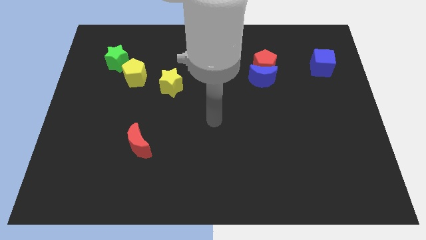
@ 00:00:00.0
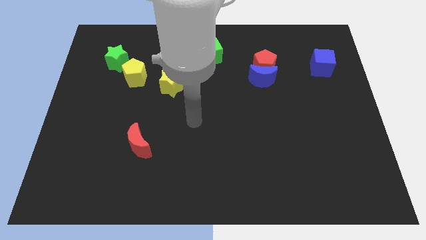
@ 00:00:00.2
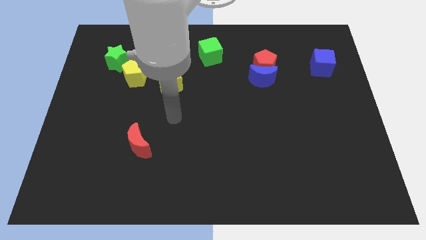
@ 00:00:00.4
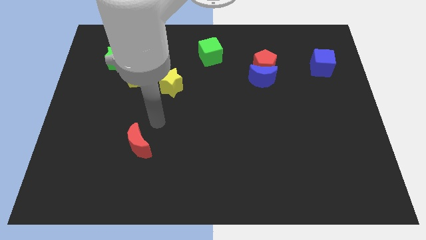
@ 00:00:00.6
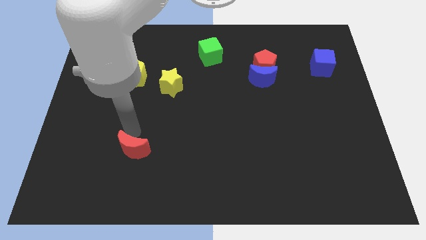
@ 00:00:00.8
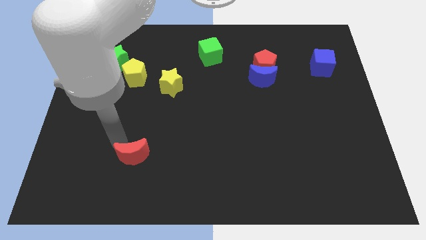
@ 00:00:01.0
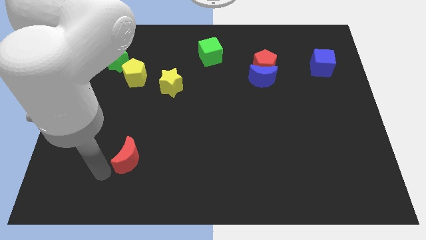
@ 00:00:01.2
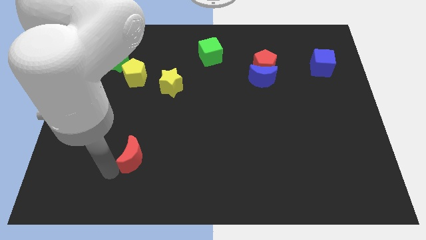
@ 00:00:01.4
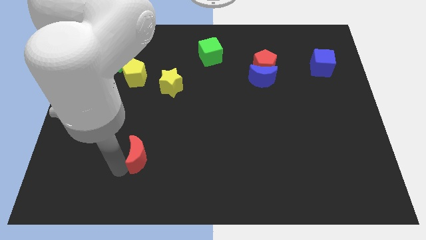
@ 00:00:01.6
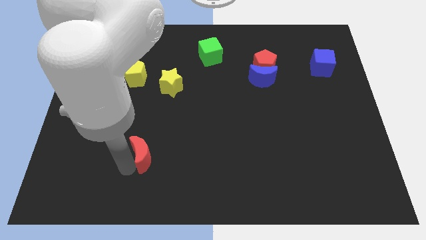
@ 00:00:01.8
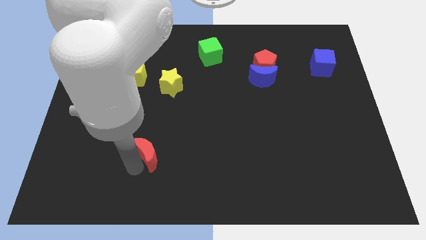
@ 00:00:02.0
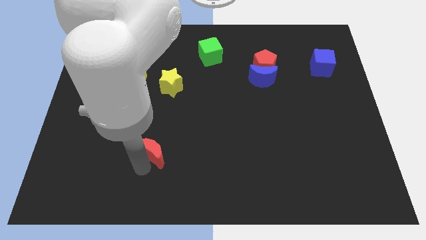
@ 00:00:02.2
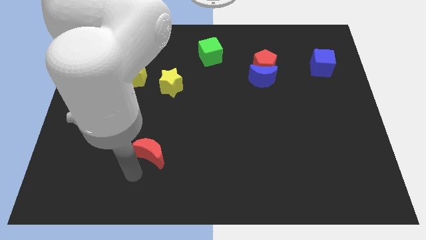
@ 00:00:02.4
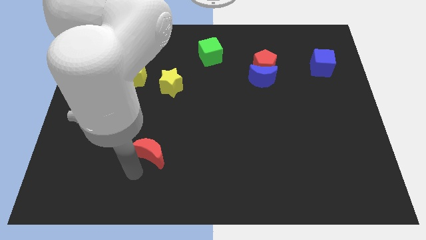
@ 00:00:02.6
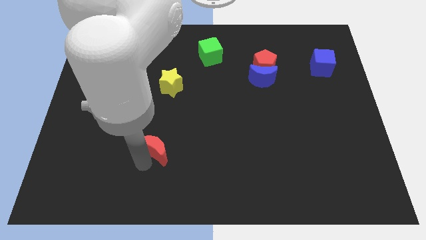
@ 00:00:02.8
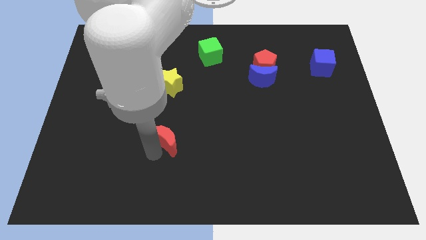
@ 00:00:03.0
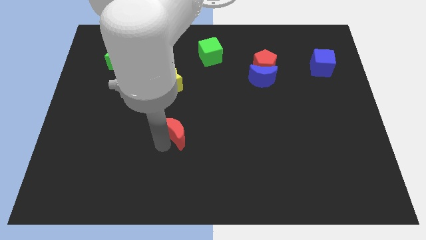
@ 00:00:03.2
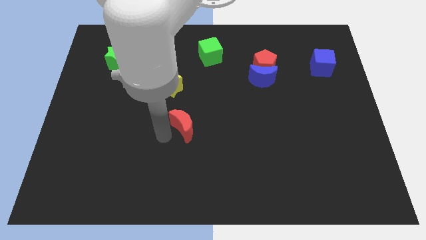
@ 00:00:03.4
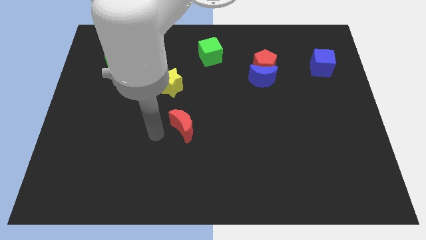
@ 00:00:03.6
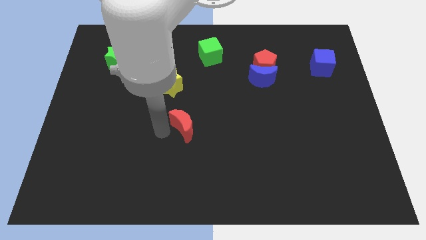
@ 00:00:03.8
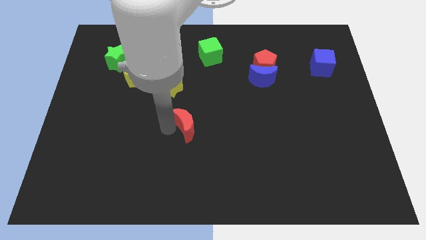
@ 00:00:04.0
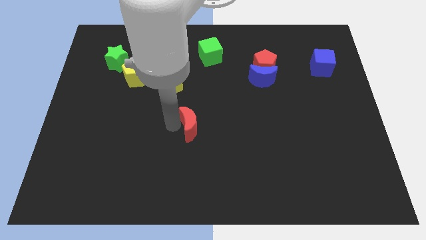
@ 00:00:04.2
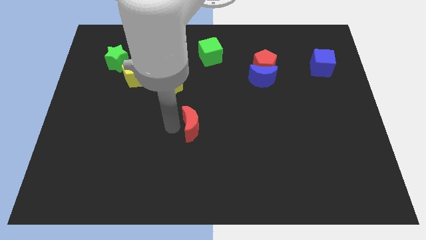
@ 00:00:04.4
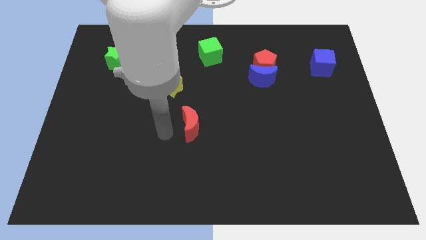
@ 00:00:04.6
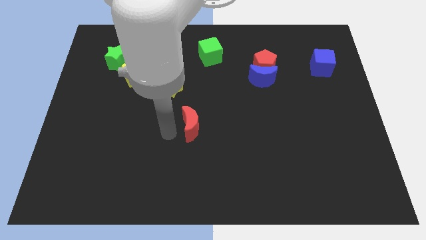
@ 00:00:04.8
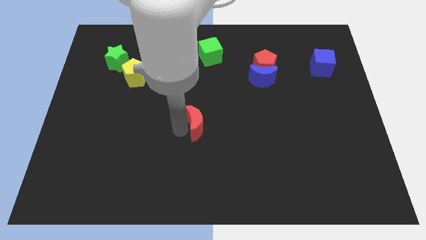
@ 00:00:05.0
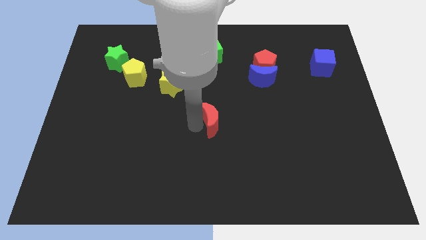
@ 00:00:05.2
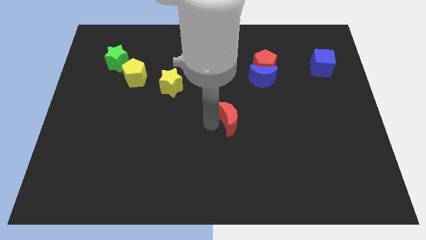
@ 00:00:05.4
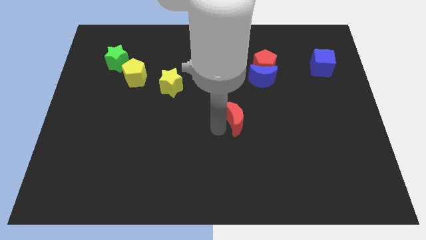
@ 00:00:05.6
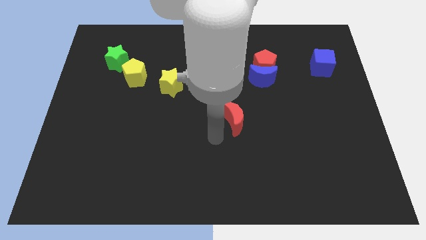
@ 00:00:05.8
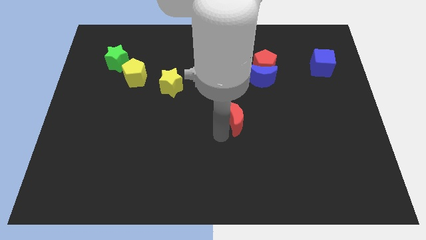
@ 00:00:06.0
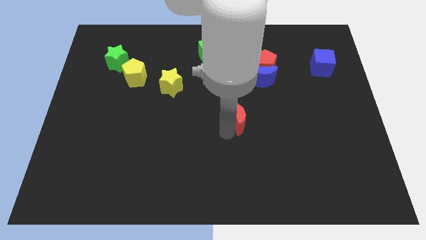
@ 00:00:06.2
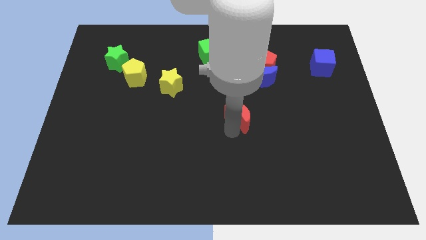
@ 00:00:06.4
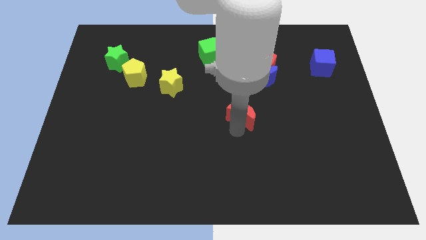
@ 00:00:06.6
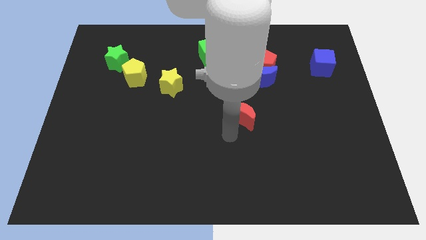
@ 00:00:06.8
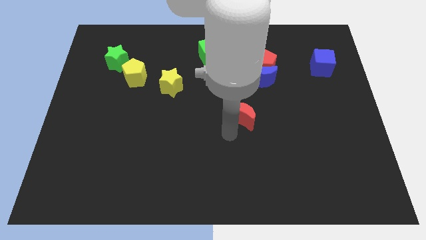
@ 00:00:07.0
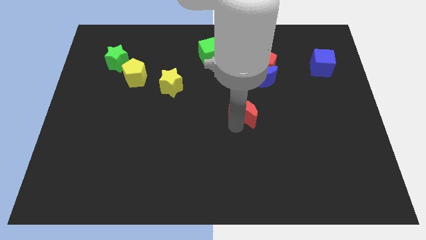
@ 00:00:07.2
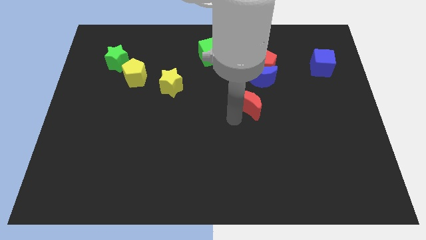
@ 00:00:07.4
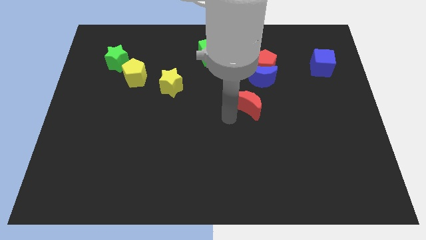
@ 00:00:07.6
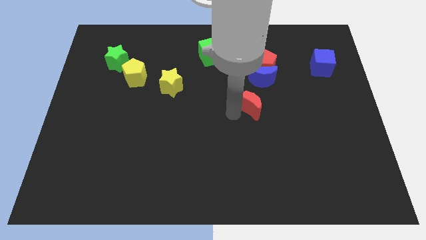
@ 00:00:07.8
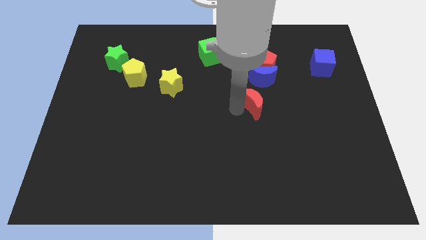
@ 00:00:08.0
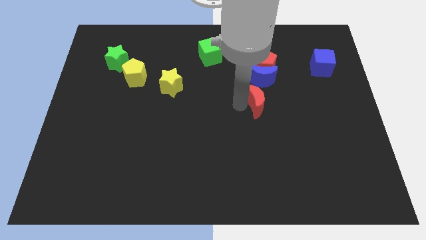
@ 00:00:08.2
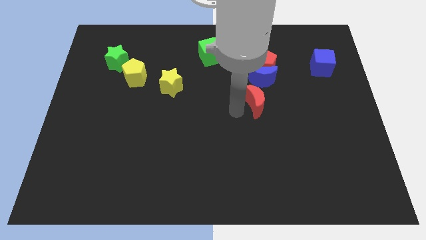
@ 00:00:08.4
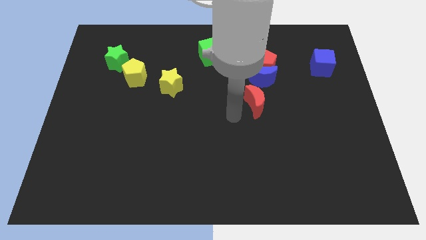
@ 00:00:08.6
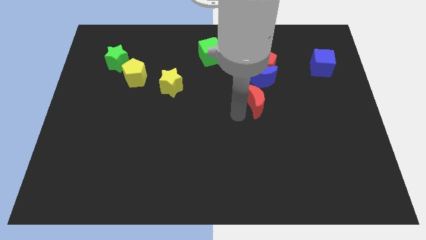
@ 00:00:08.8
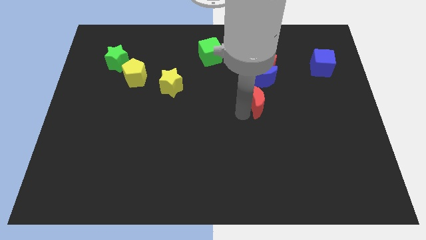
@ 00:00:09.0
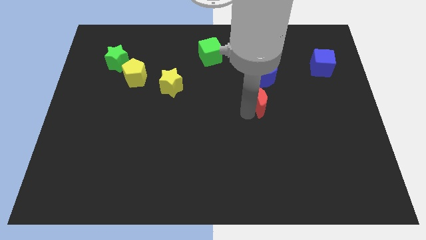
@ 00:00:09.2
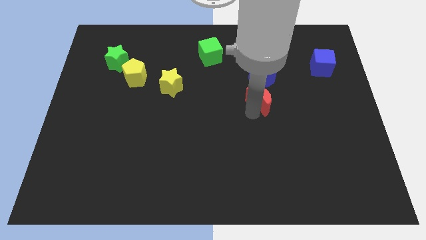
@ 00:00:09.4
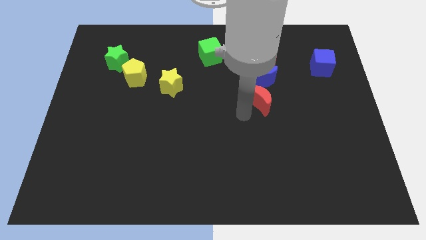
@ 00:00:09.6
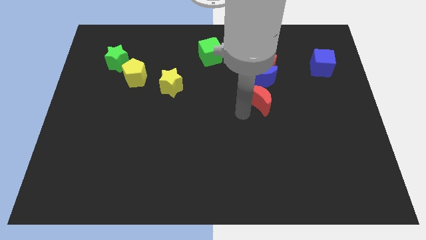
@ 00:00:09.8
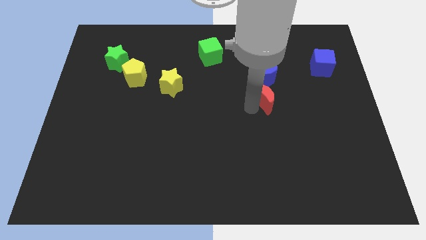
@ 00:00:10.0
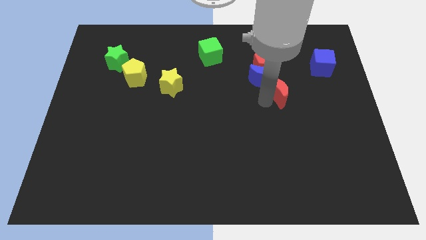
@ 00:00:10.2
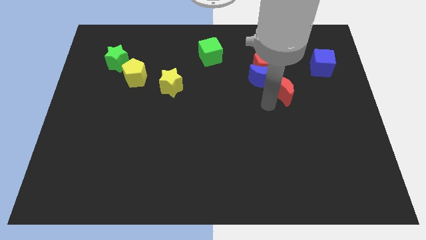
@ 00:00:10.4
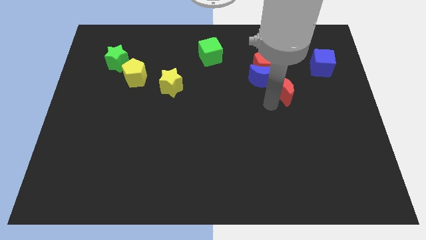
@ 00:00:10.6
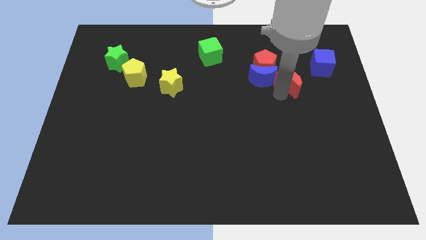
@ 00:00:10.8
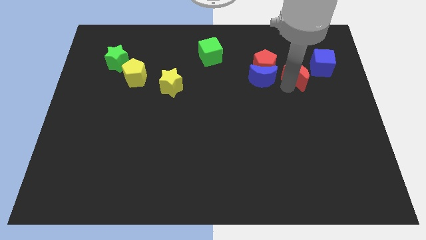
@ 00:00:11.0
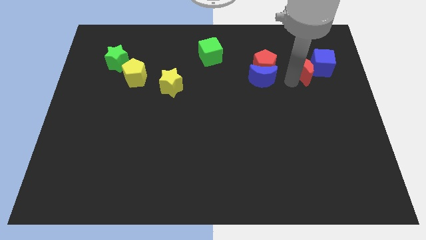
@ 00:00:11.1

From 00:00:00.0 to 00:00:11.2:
slide the red moon close to the blue cube
